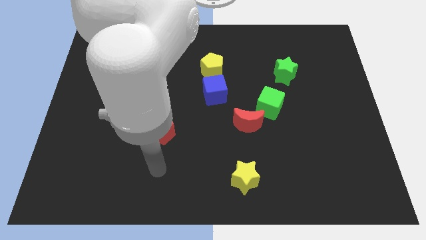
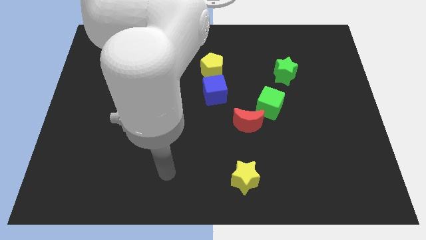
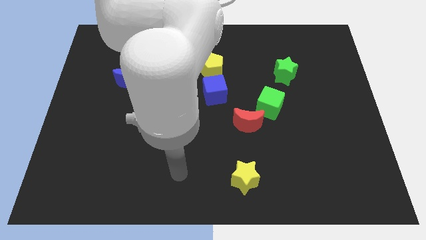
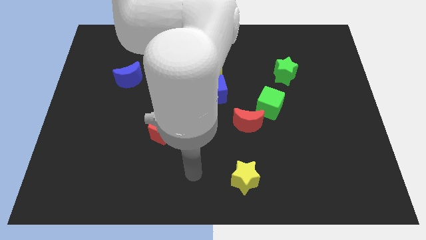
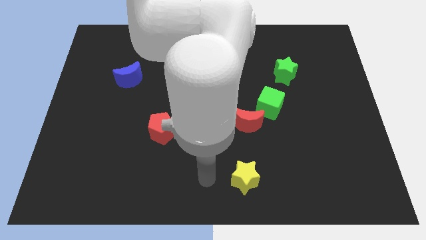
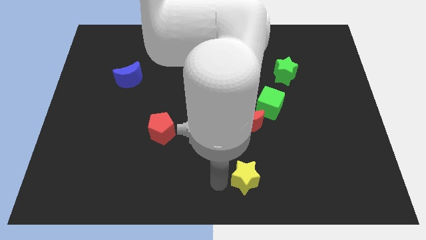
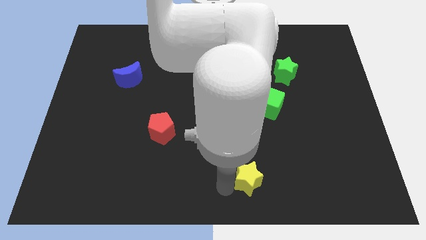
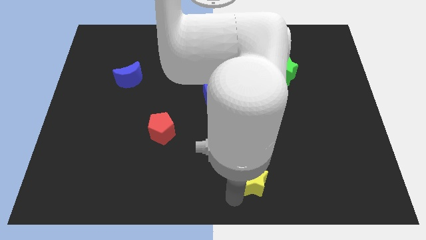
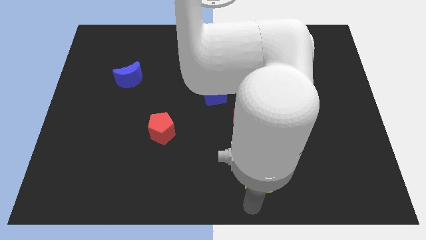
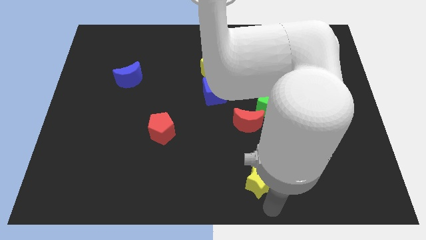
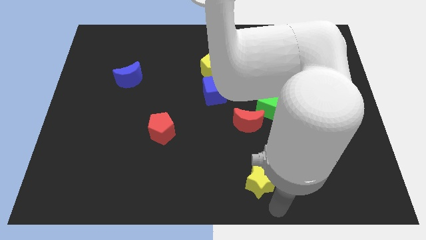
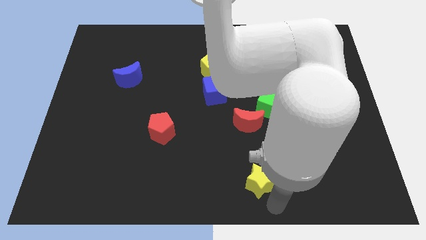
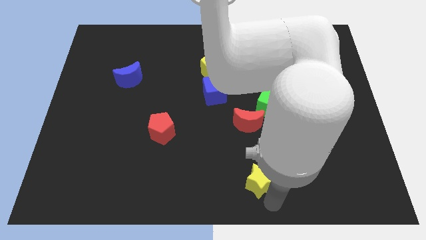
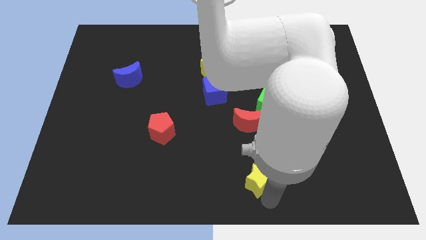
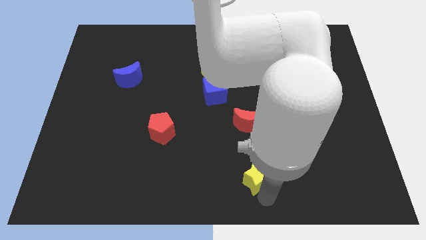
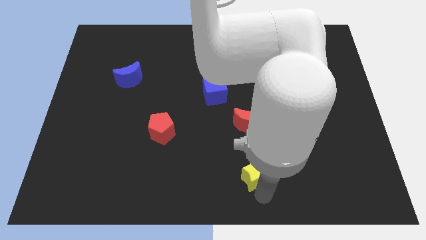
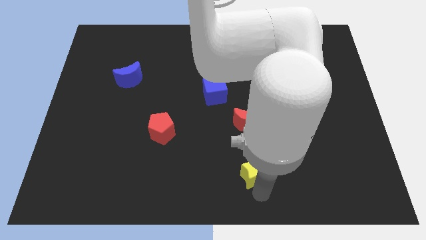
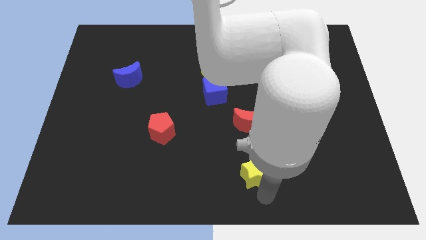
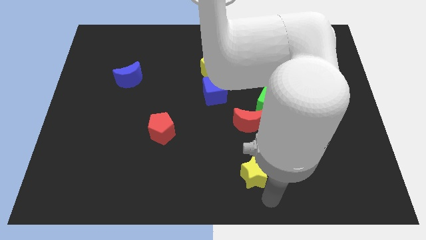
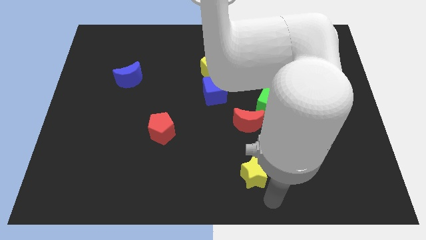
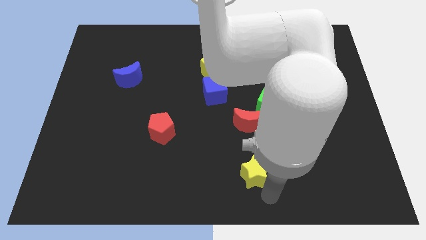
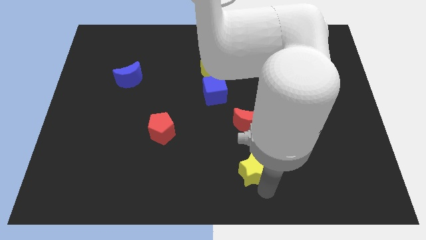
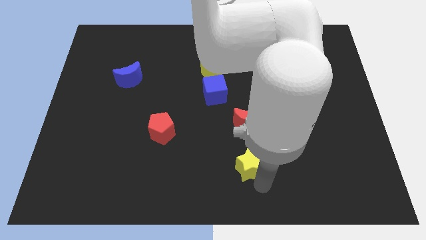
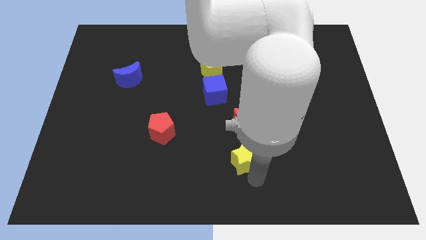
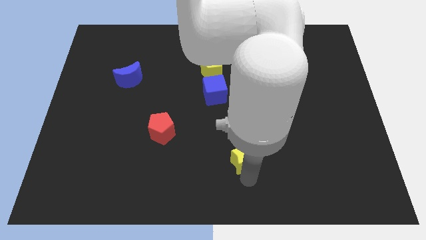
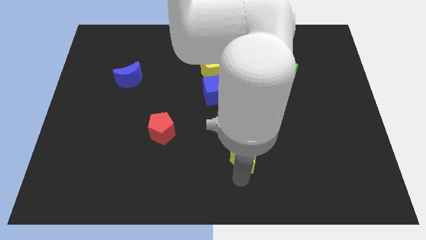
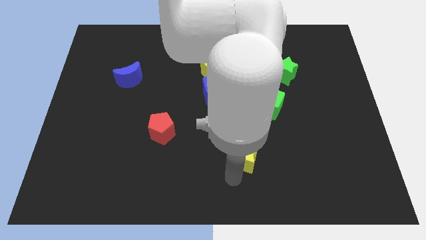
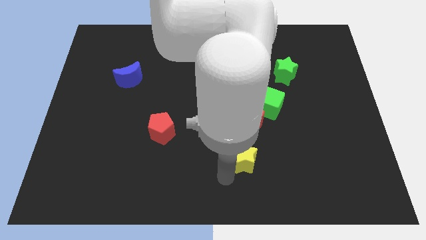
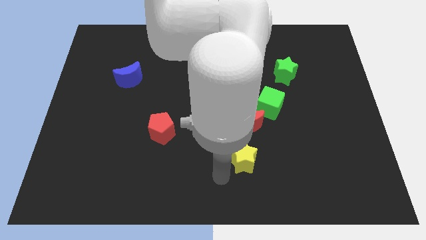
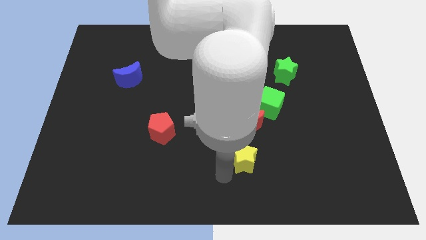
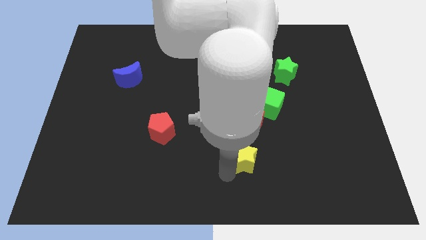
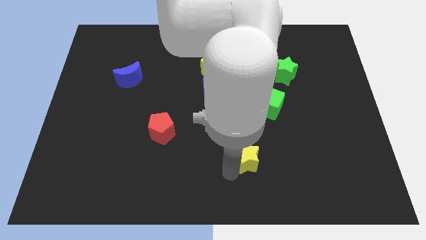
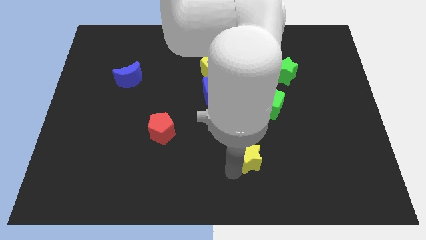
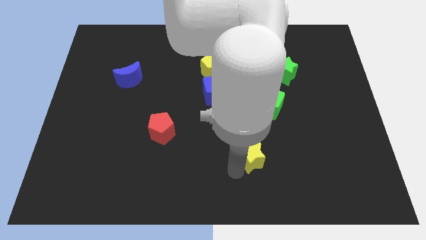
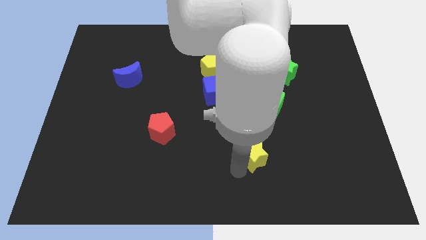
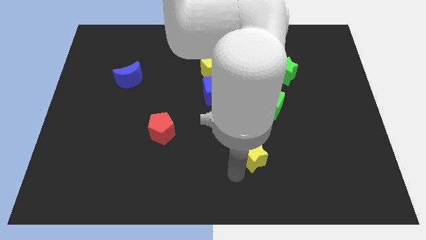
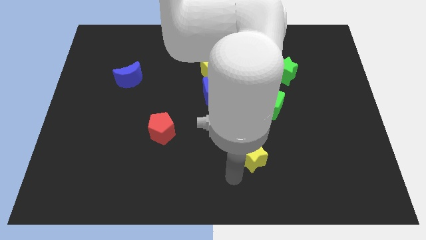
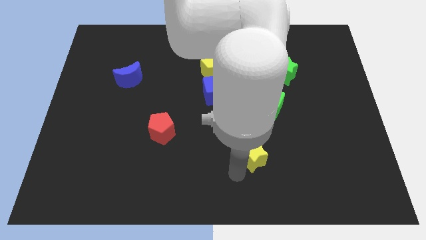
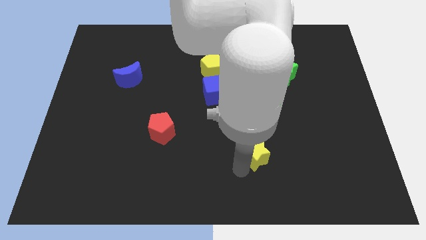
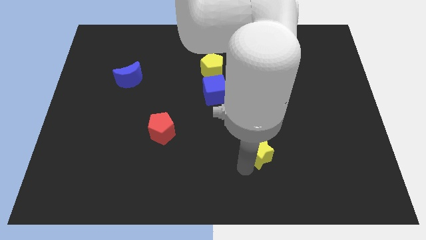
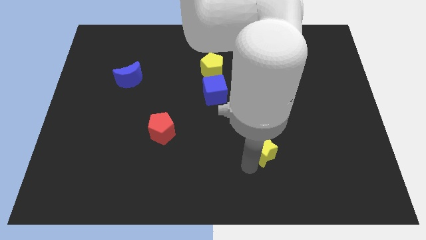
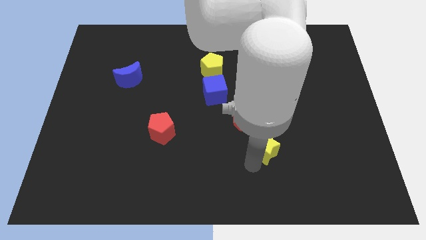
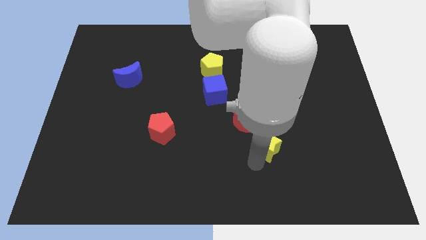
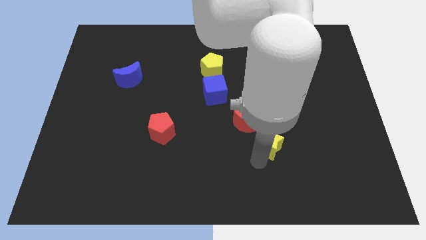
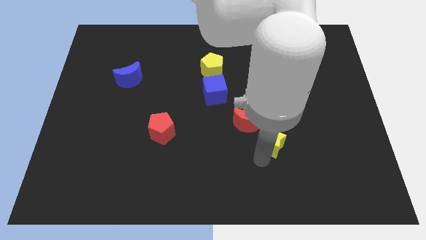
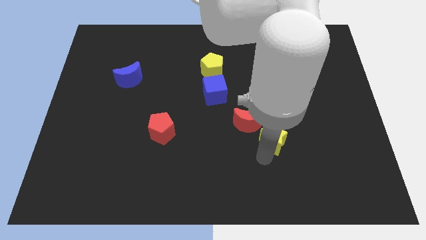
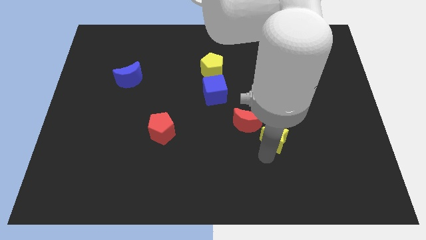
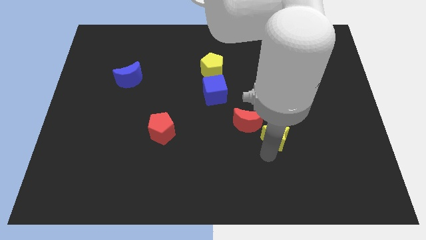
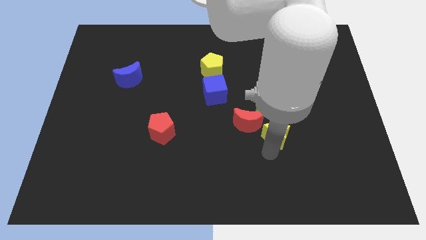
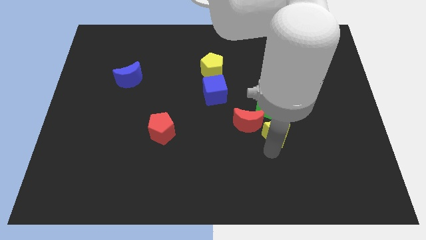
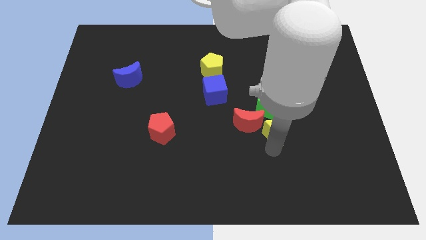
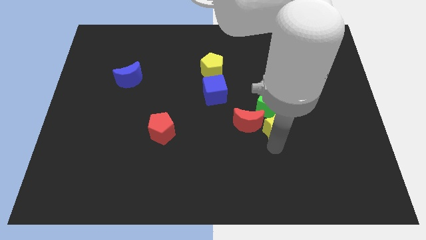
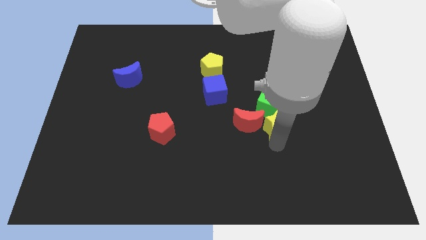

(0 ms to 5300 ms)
push the yellow star close to the green cube

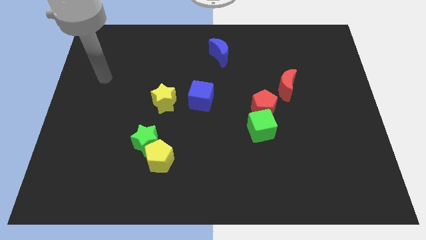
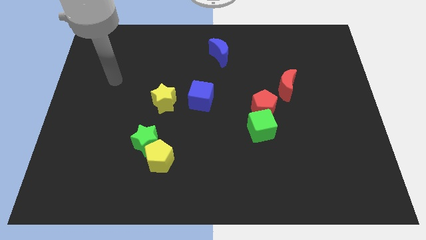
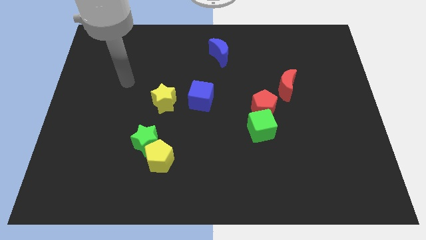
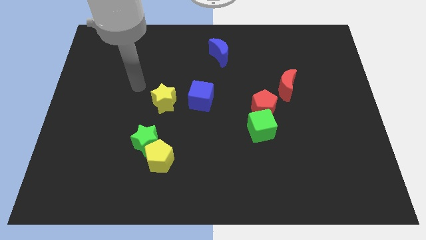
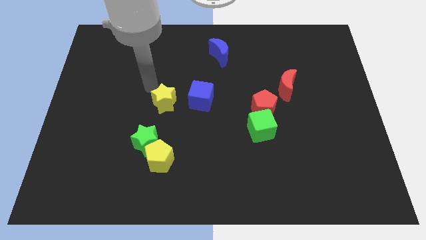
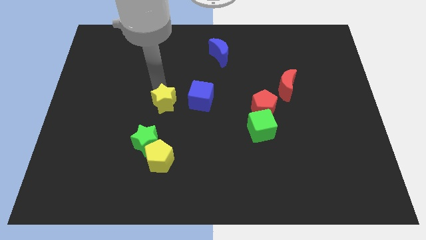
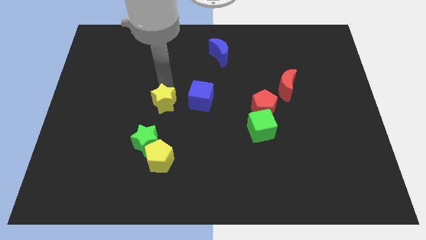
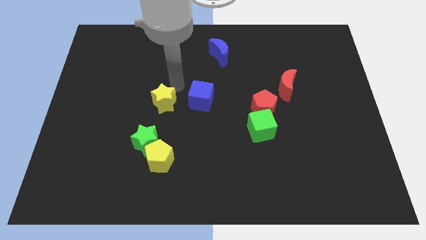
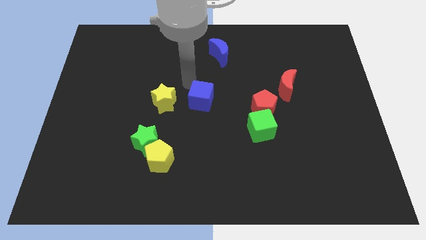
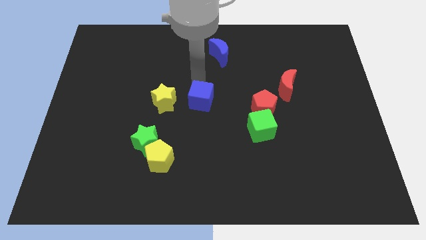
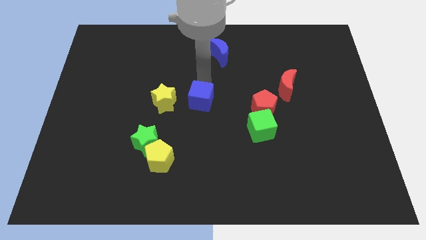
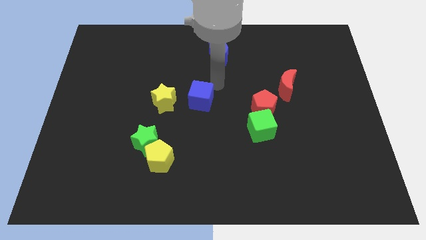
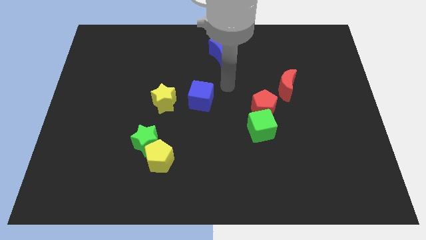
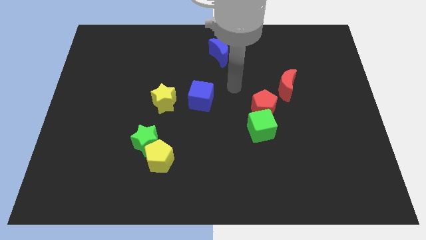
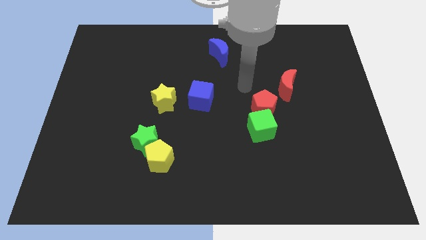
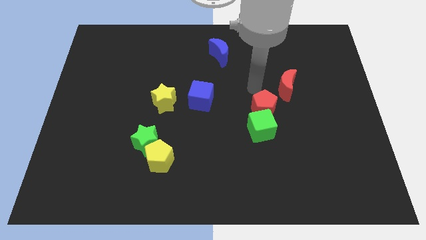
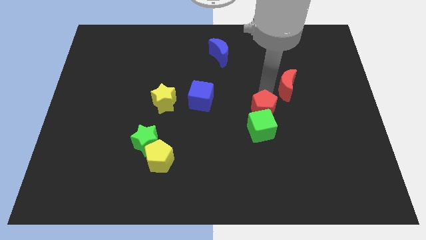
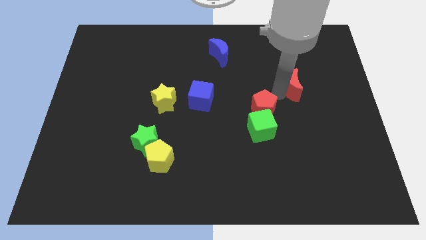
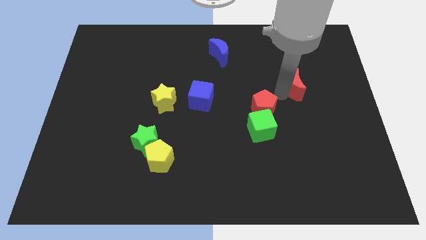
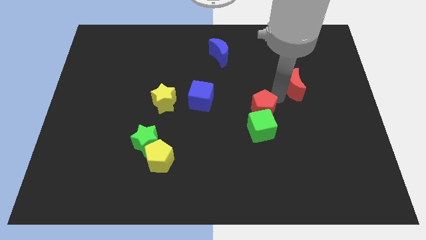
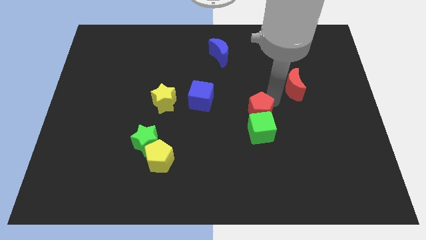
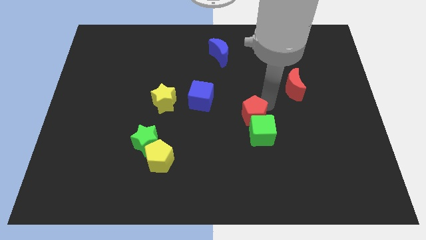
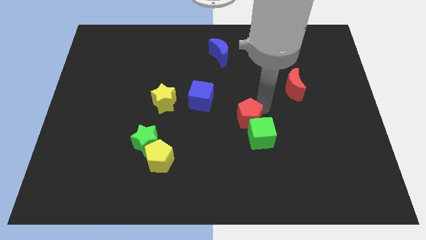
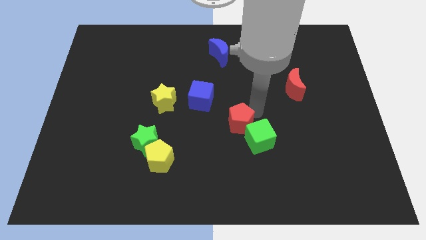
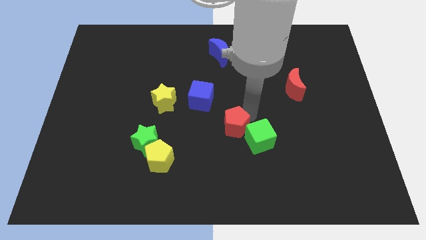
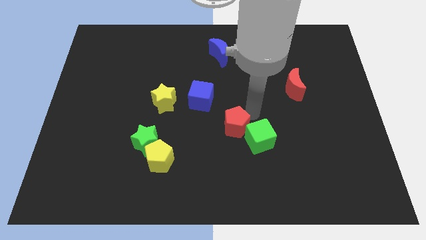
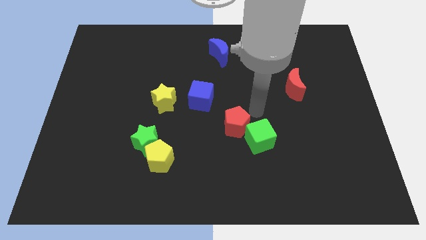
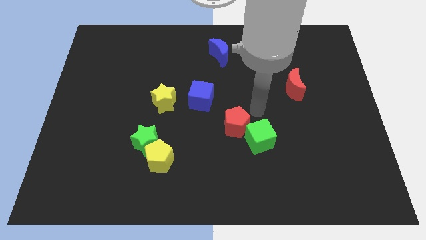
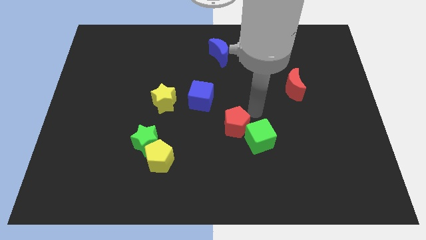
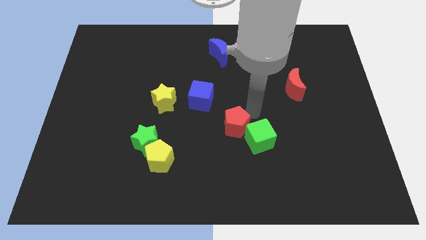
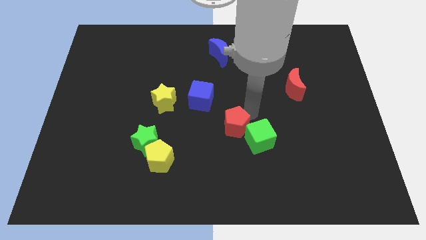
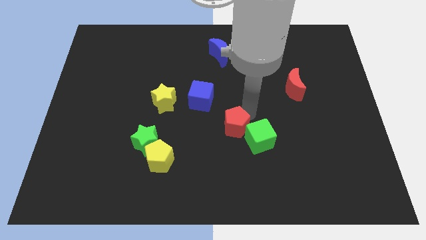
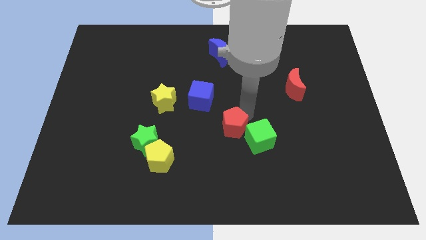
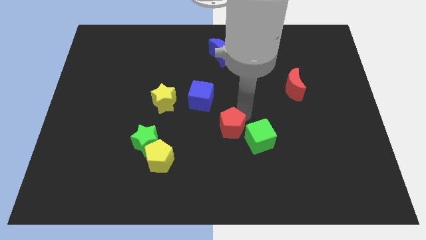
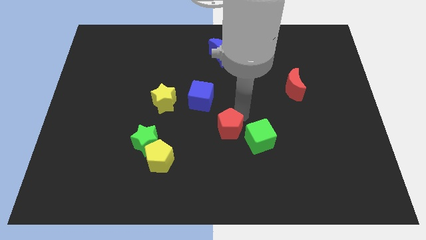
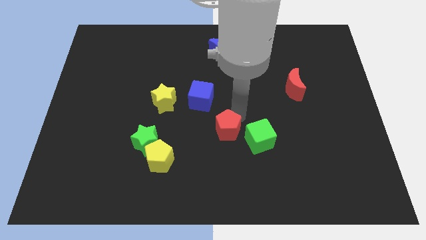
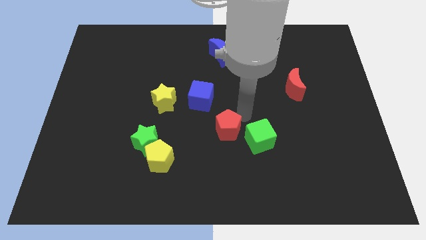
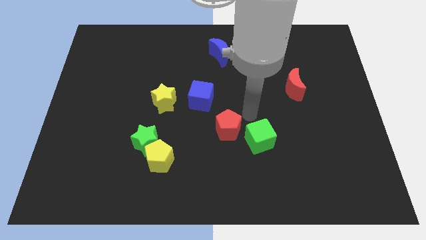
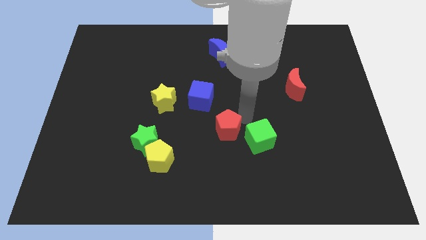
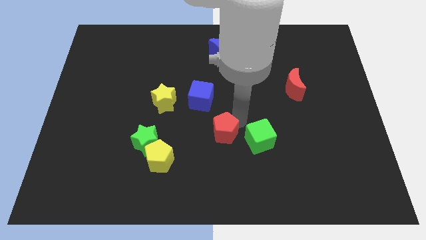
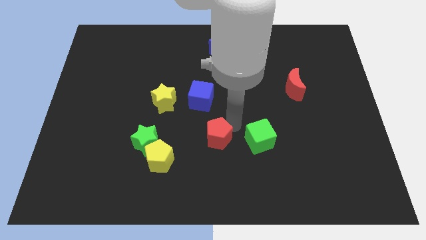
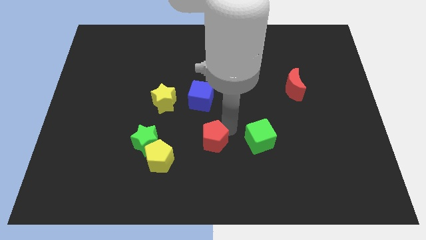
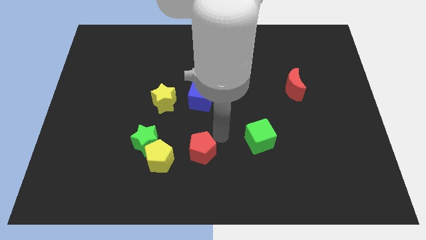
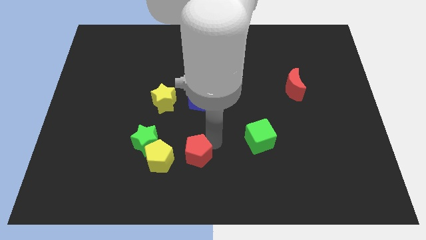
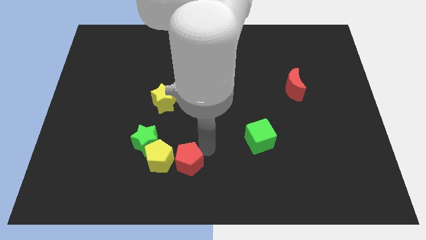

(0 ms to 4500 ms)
put the red pentagon next to the yellow pentagon
